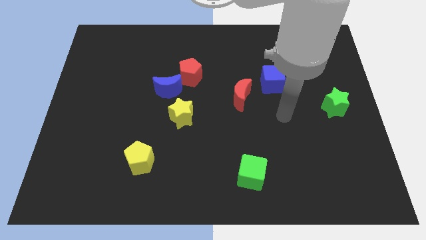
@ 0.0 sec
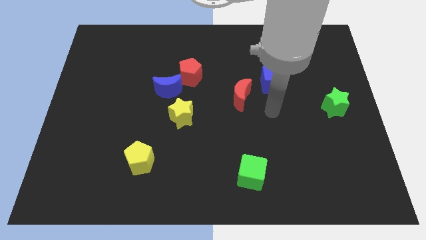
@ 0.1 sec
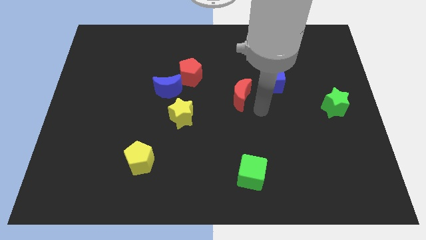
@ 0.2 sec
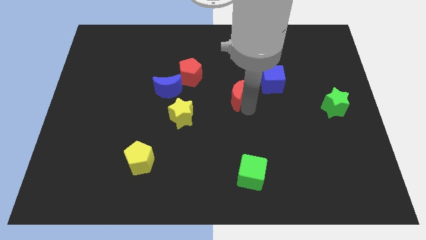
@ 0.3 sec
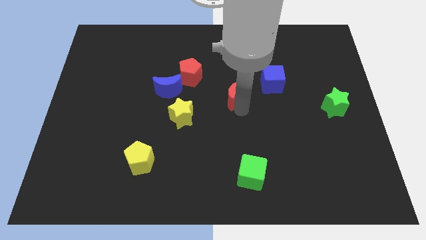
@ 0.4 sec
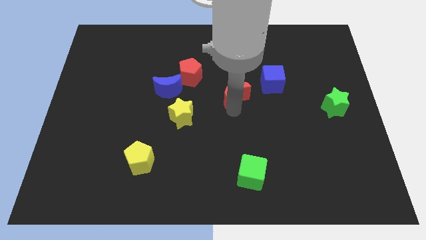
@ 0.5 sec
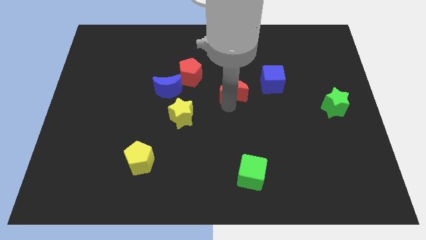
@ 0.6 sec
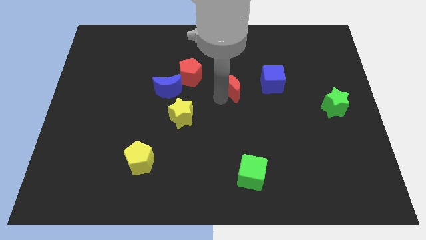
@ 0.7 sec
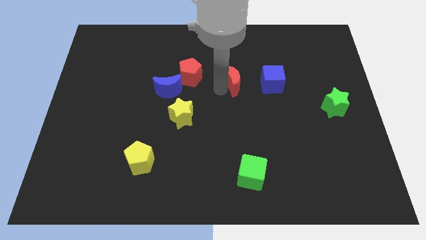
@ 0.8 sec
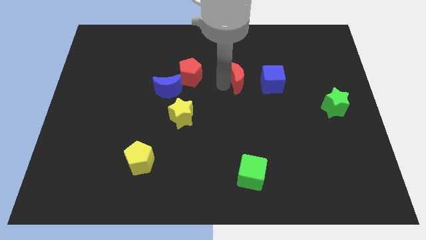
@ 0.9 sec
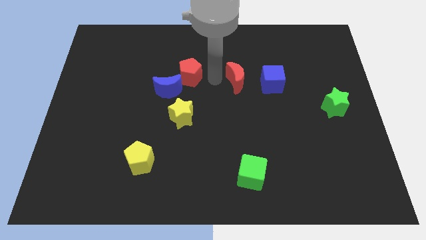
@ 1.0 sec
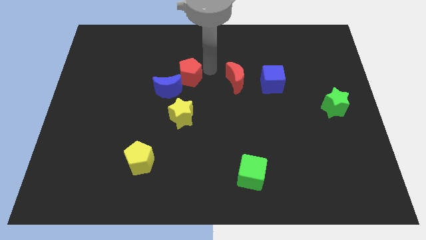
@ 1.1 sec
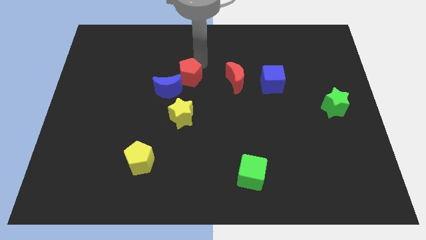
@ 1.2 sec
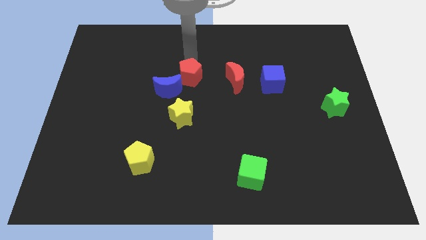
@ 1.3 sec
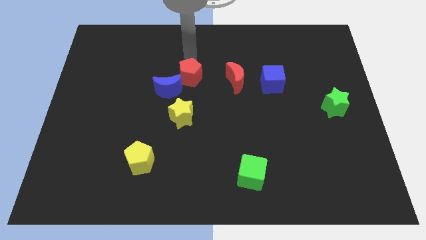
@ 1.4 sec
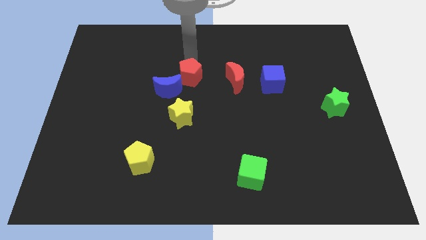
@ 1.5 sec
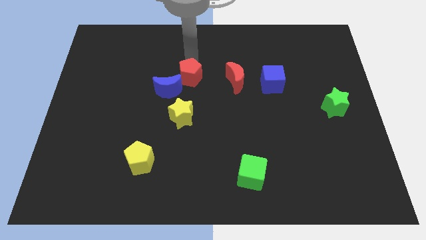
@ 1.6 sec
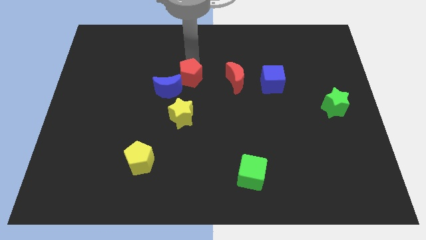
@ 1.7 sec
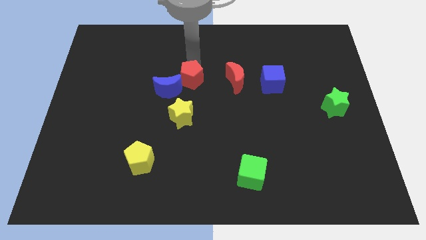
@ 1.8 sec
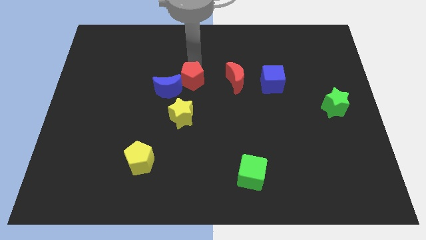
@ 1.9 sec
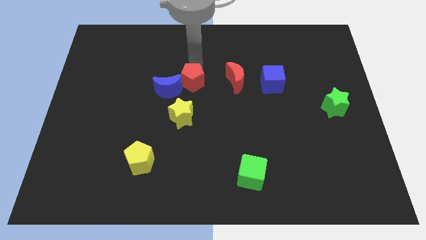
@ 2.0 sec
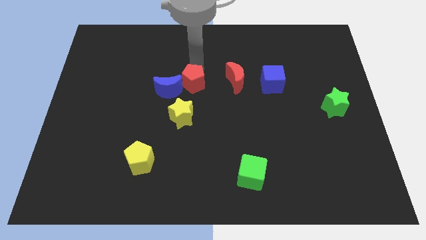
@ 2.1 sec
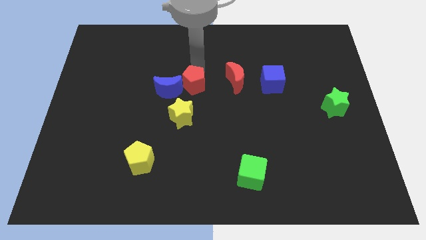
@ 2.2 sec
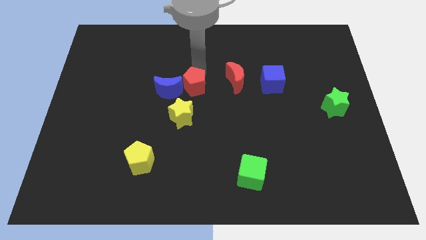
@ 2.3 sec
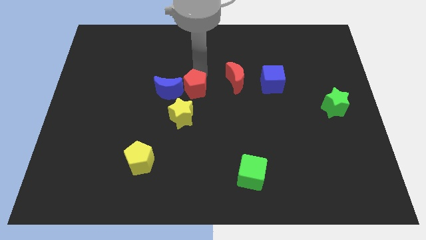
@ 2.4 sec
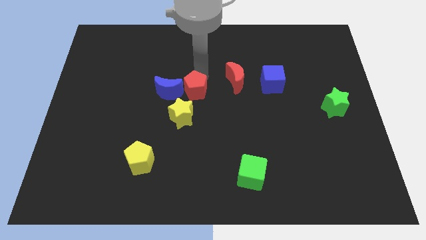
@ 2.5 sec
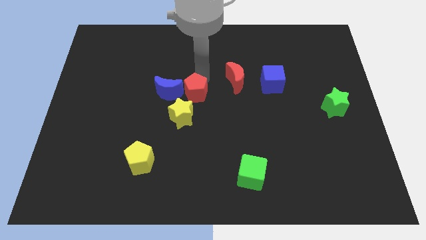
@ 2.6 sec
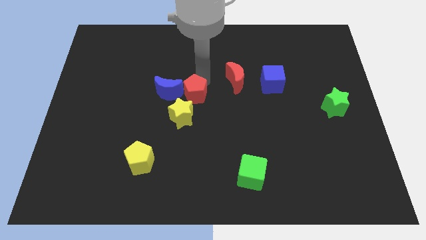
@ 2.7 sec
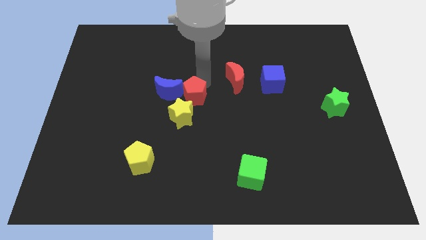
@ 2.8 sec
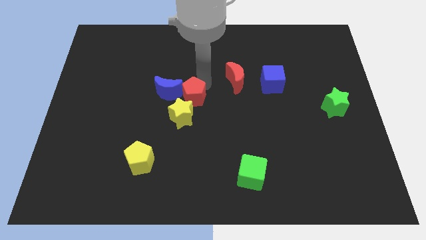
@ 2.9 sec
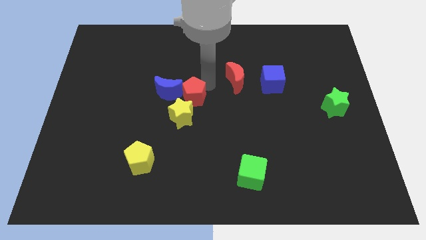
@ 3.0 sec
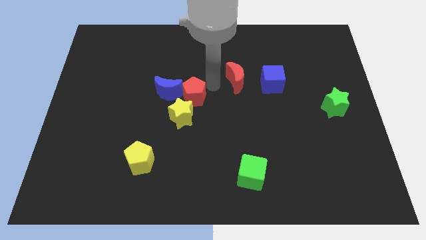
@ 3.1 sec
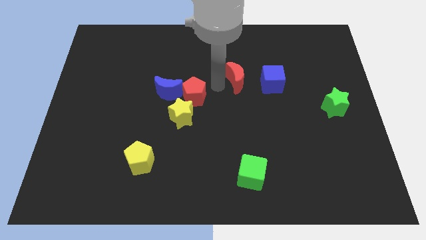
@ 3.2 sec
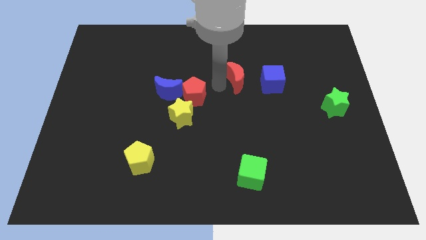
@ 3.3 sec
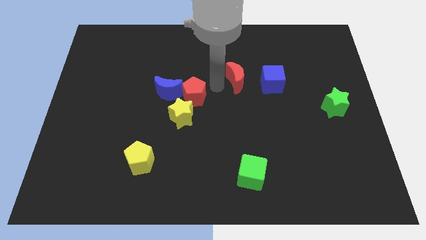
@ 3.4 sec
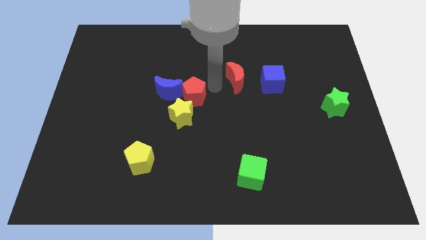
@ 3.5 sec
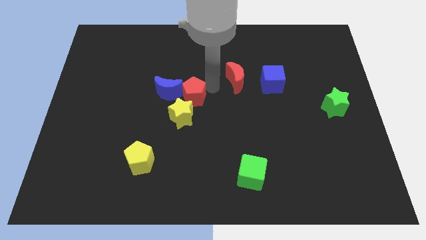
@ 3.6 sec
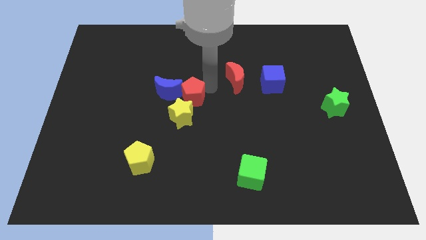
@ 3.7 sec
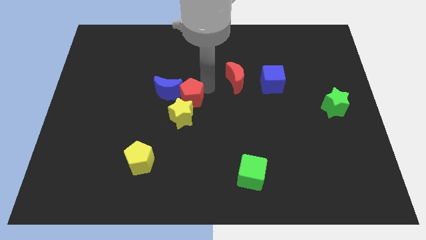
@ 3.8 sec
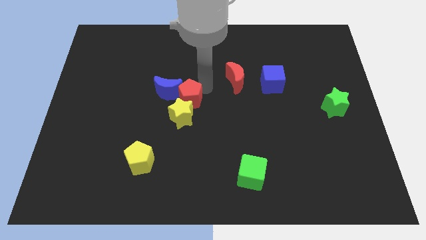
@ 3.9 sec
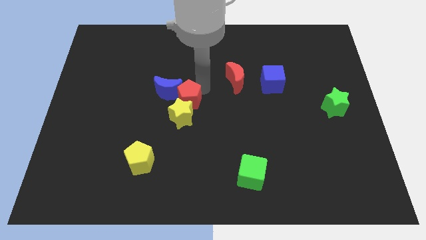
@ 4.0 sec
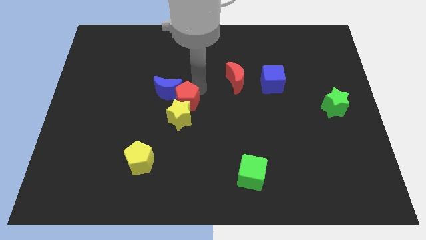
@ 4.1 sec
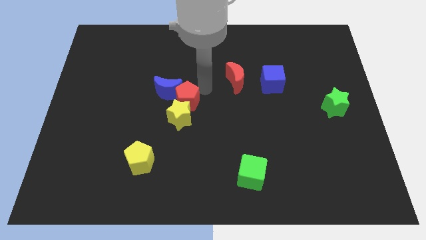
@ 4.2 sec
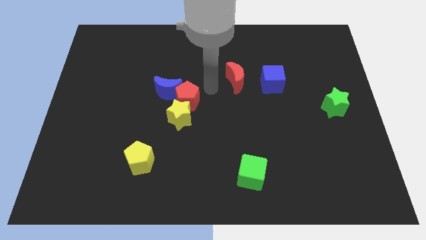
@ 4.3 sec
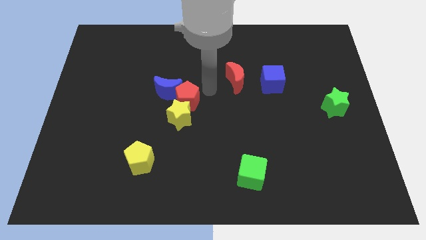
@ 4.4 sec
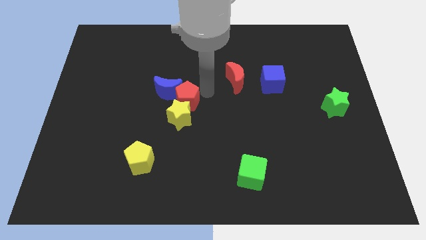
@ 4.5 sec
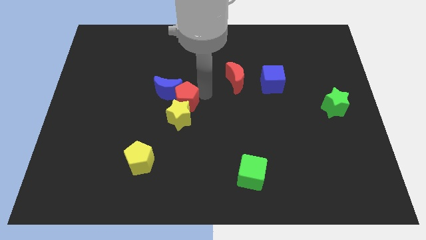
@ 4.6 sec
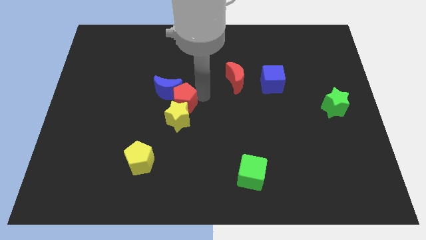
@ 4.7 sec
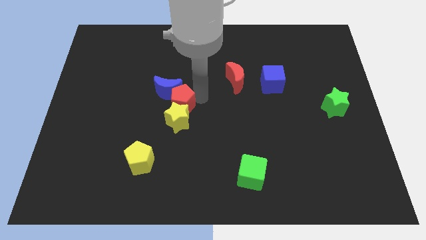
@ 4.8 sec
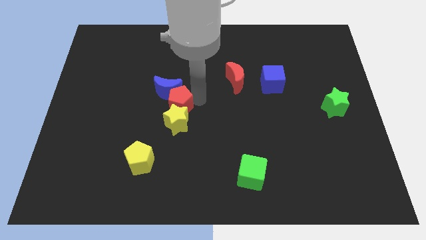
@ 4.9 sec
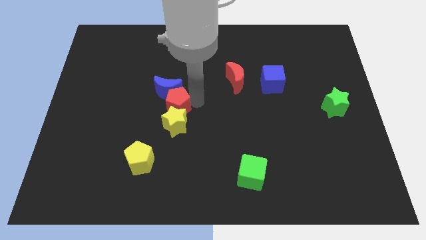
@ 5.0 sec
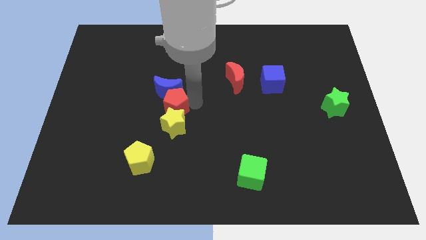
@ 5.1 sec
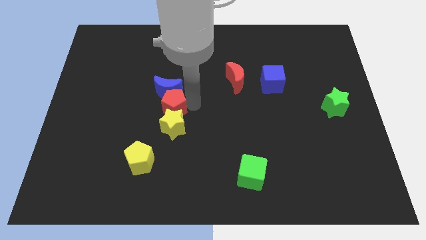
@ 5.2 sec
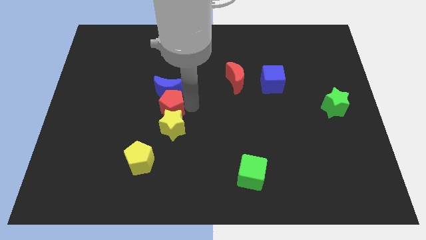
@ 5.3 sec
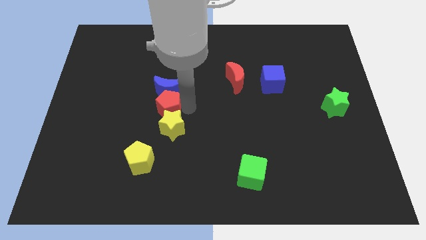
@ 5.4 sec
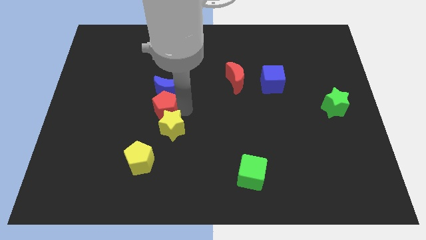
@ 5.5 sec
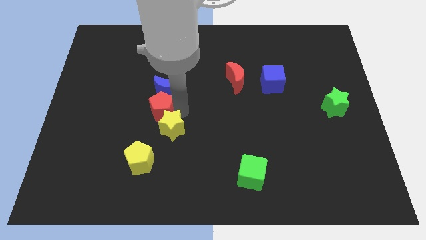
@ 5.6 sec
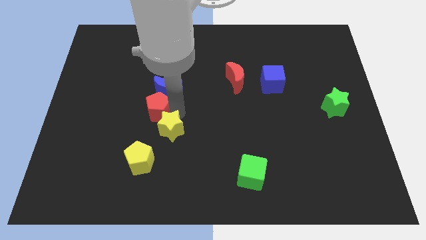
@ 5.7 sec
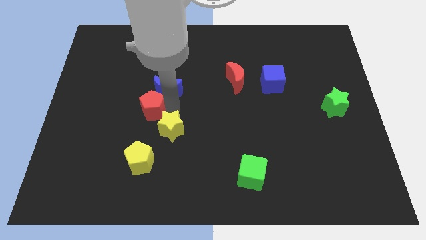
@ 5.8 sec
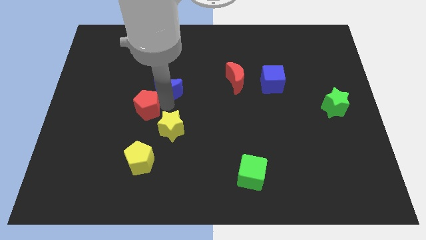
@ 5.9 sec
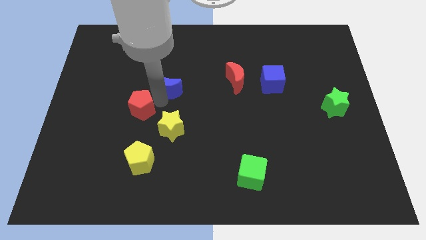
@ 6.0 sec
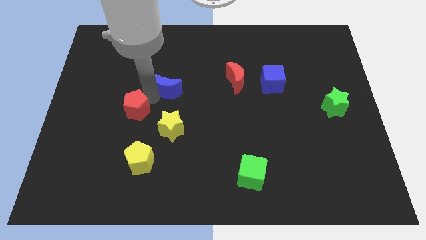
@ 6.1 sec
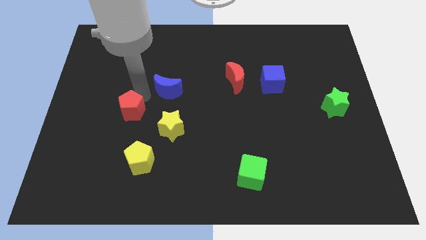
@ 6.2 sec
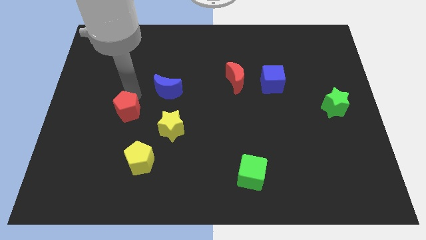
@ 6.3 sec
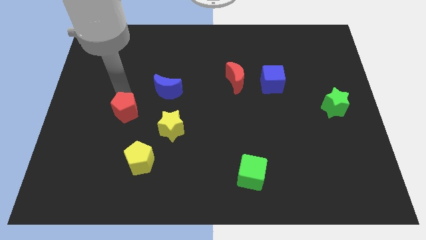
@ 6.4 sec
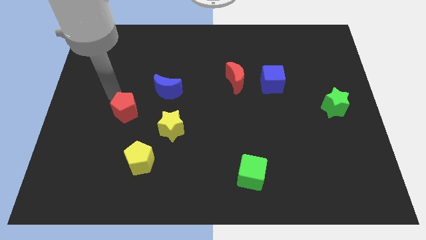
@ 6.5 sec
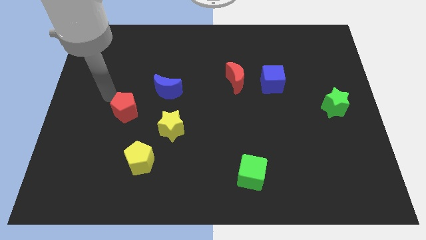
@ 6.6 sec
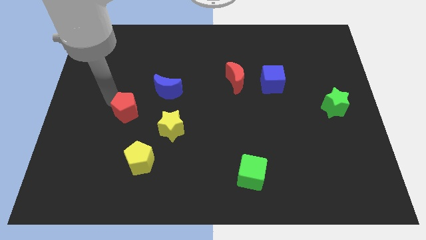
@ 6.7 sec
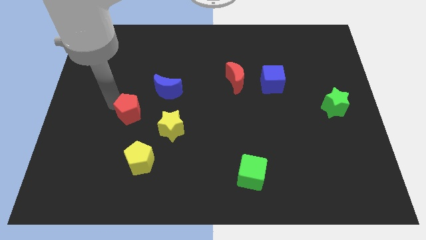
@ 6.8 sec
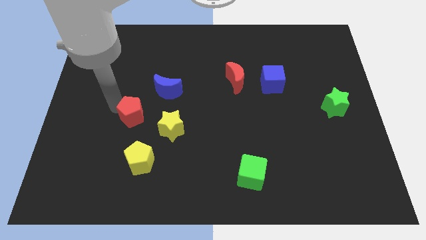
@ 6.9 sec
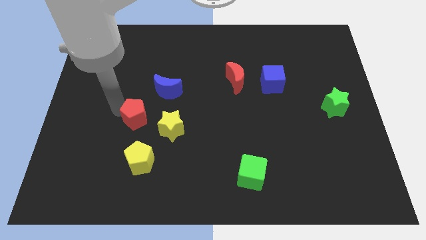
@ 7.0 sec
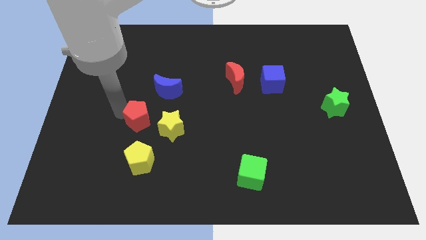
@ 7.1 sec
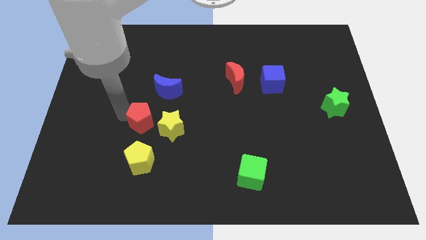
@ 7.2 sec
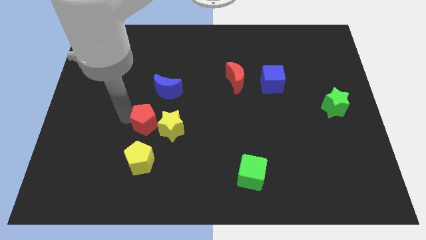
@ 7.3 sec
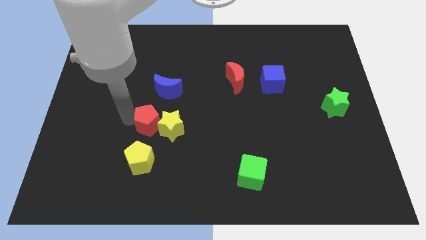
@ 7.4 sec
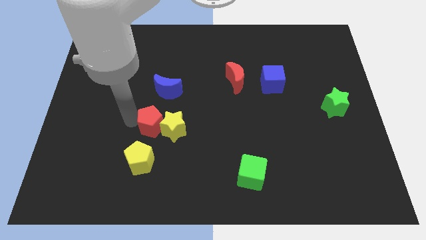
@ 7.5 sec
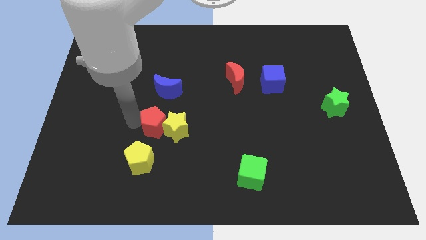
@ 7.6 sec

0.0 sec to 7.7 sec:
slide the red pentagon diagonally up and to the right of the yellow pentagon
